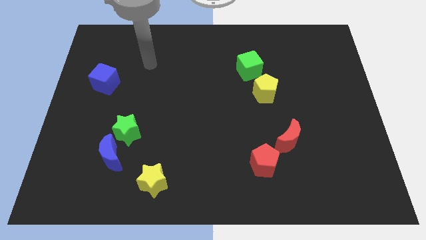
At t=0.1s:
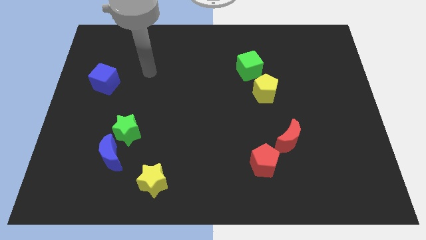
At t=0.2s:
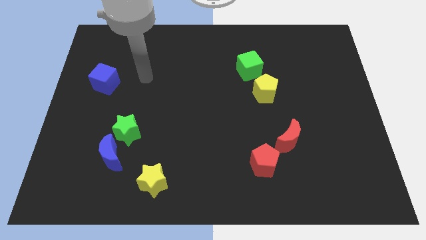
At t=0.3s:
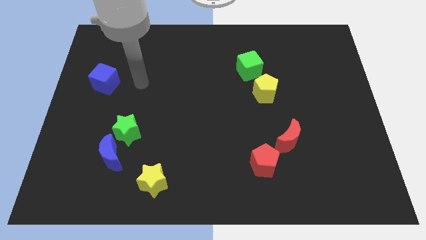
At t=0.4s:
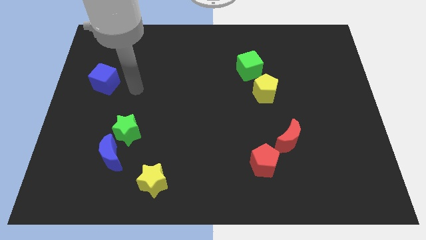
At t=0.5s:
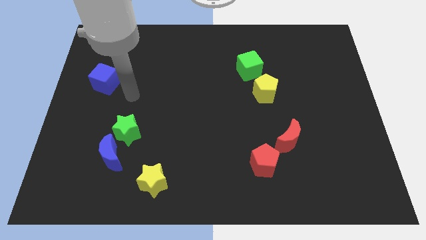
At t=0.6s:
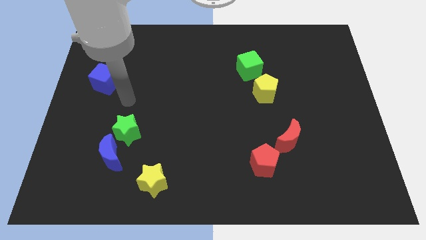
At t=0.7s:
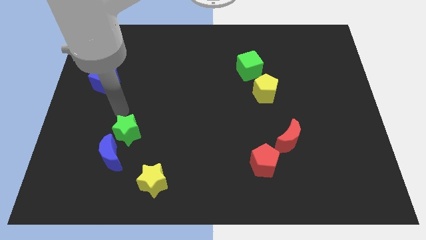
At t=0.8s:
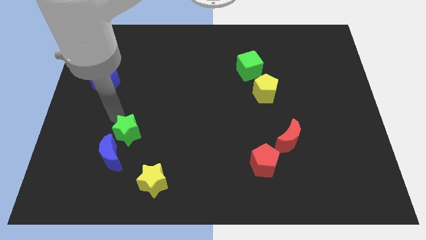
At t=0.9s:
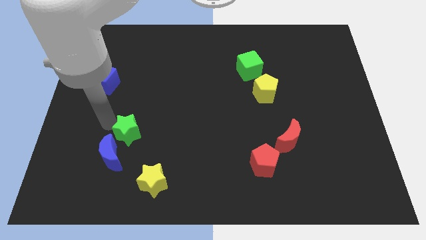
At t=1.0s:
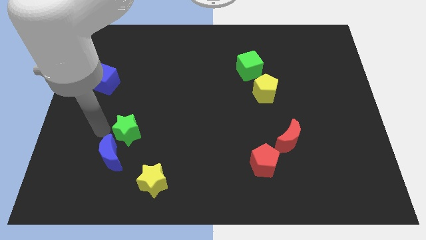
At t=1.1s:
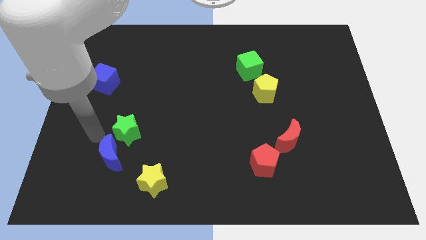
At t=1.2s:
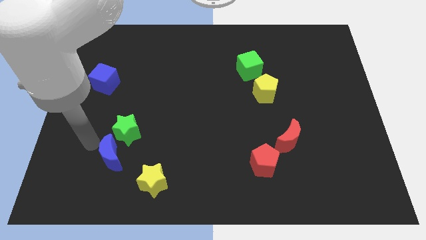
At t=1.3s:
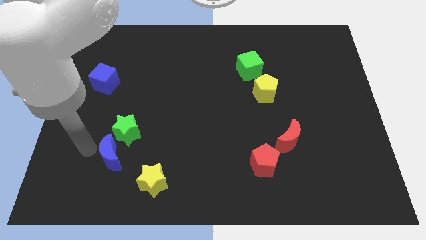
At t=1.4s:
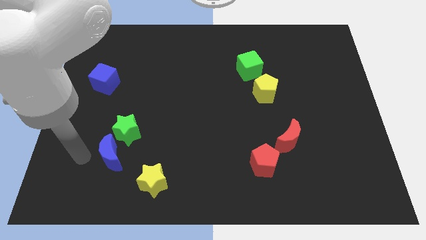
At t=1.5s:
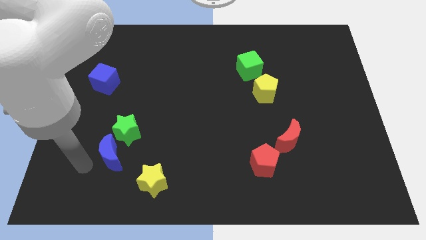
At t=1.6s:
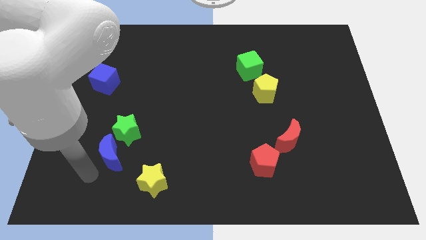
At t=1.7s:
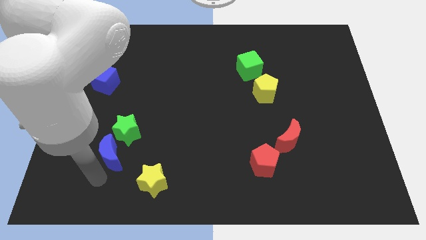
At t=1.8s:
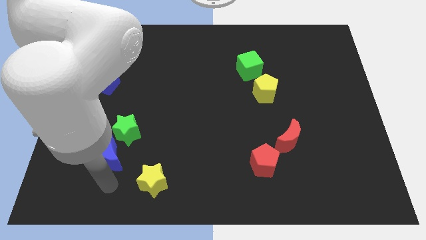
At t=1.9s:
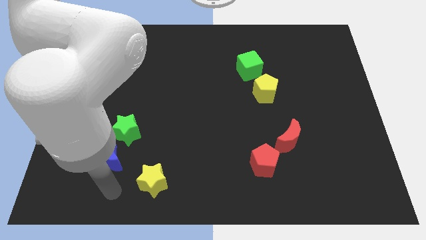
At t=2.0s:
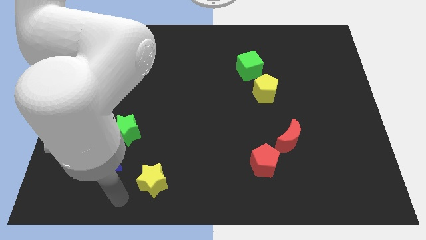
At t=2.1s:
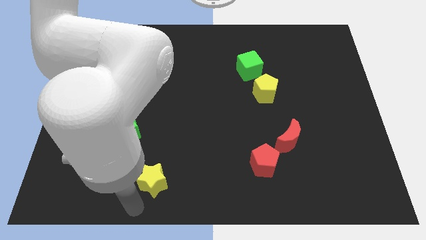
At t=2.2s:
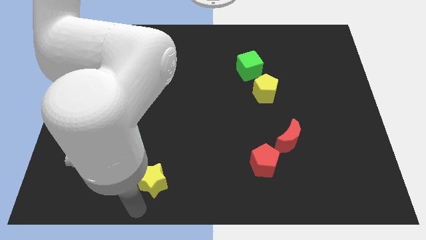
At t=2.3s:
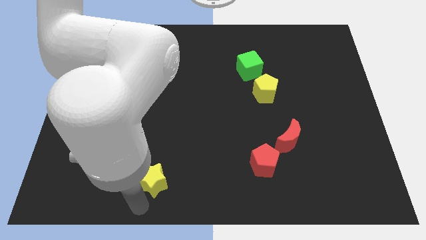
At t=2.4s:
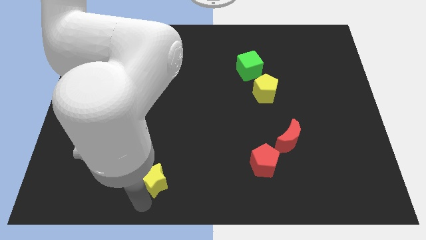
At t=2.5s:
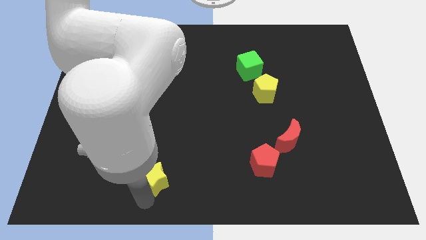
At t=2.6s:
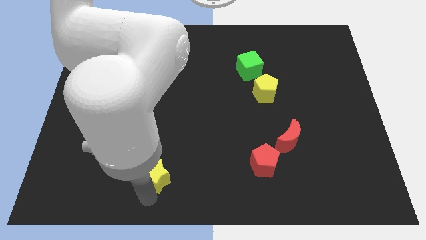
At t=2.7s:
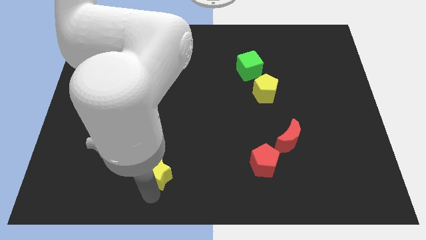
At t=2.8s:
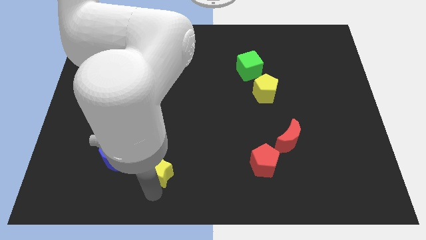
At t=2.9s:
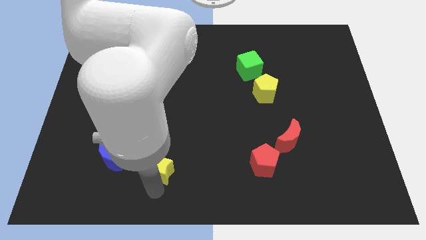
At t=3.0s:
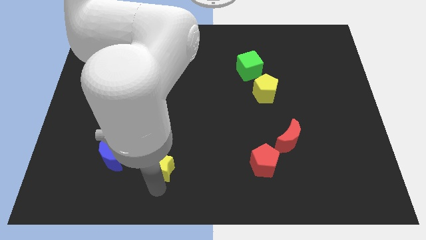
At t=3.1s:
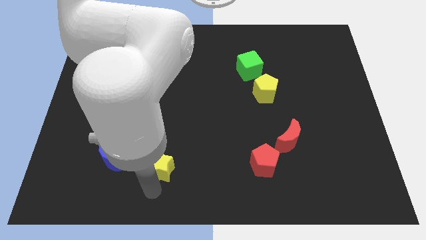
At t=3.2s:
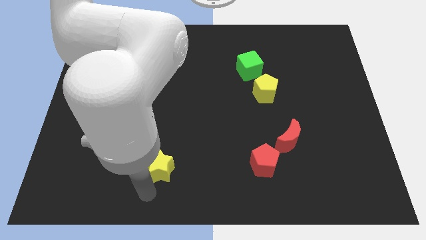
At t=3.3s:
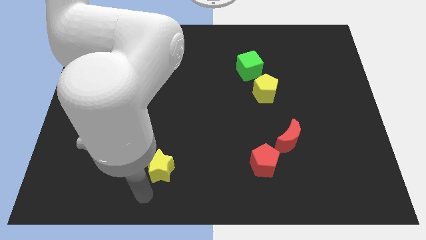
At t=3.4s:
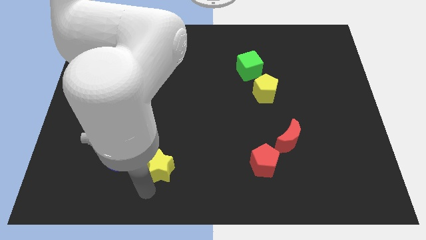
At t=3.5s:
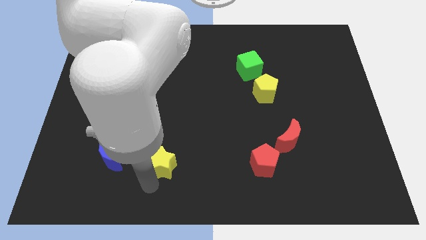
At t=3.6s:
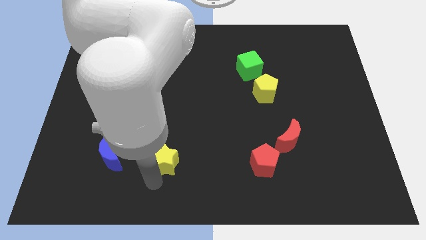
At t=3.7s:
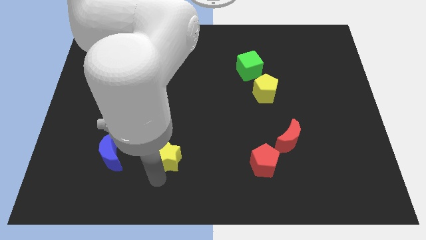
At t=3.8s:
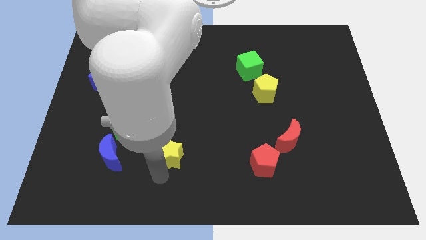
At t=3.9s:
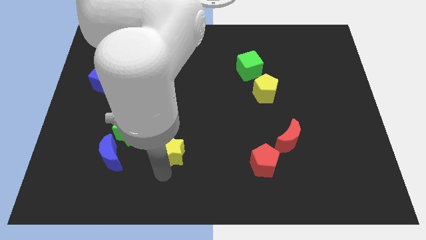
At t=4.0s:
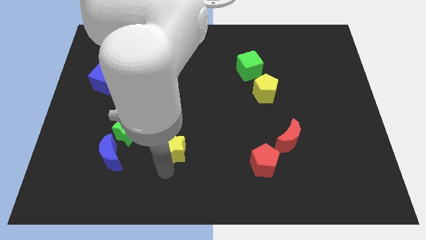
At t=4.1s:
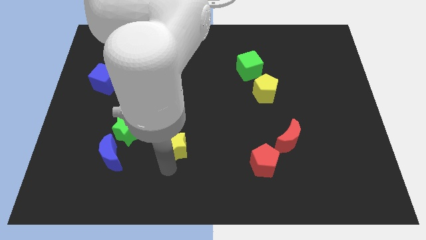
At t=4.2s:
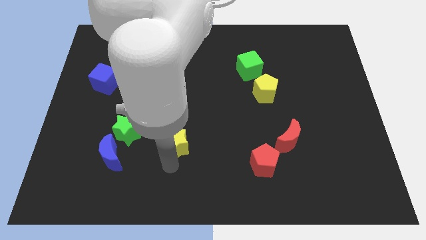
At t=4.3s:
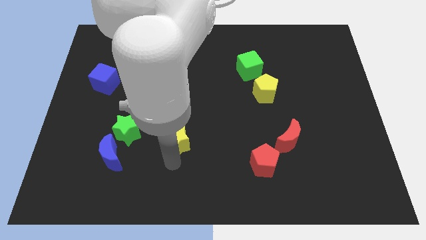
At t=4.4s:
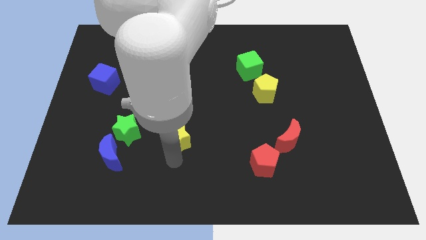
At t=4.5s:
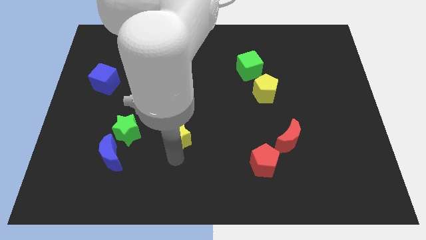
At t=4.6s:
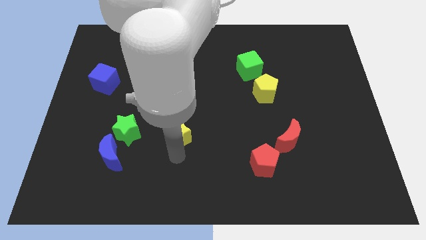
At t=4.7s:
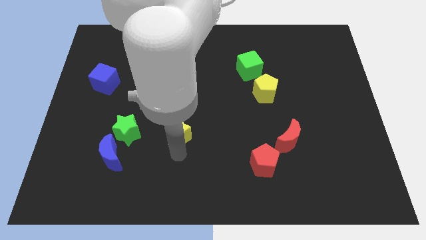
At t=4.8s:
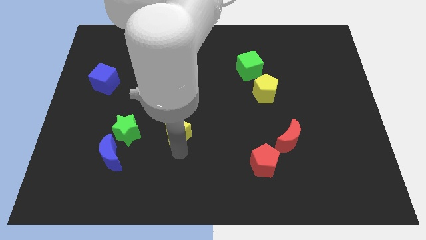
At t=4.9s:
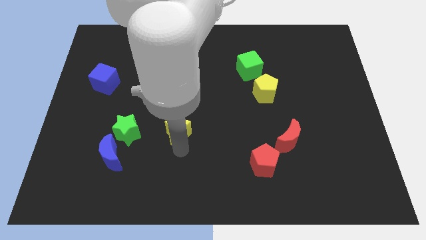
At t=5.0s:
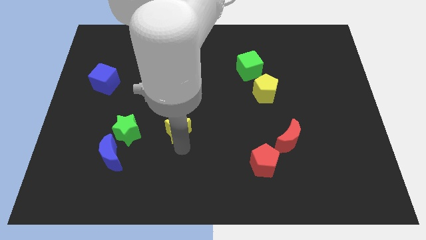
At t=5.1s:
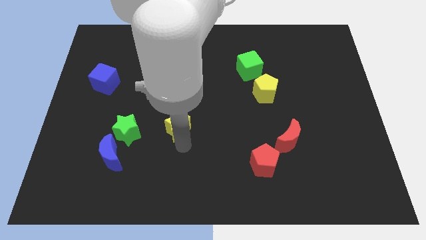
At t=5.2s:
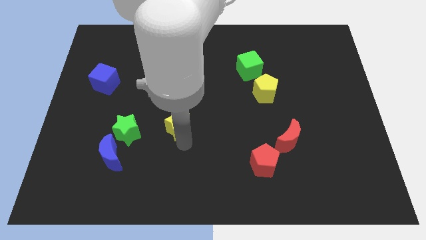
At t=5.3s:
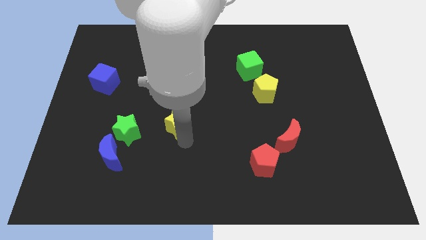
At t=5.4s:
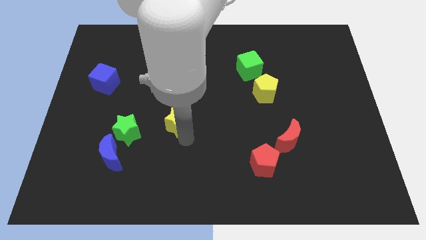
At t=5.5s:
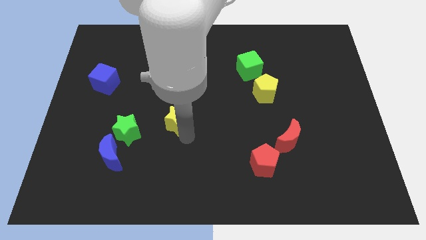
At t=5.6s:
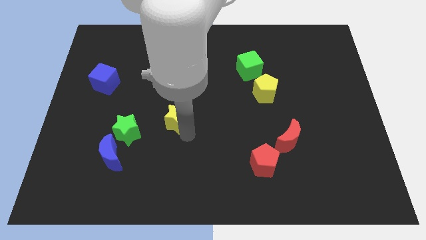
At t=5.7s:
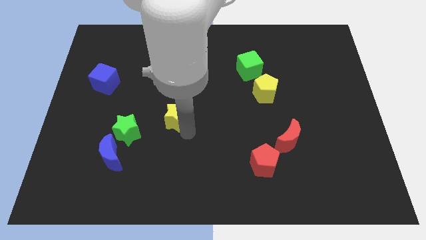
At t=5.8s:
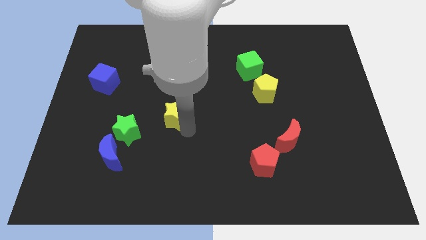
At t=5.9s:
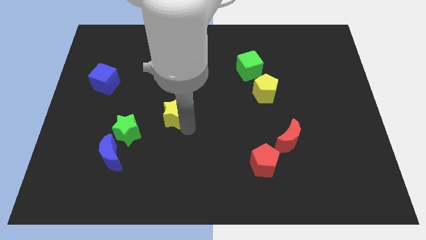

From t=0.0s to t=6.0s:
put the yellow star diagonally up and to the right of the green star

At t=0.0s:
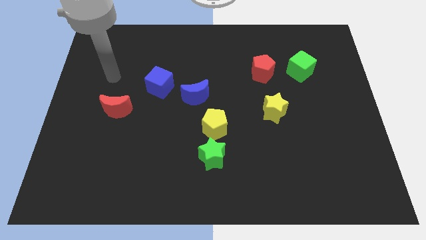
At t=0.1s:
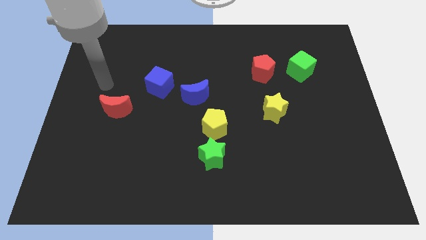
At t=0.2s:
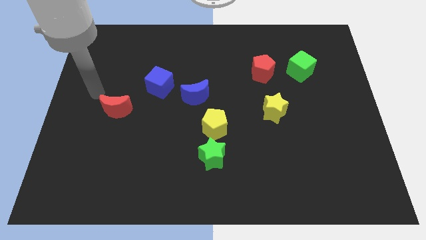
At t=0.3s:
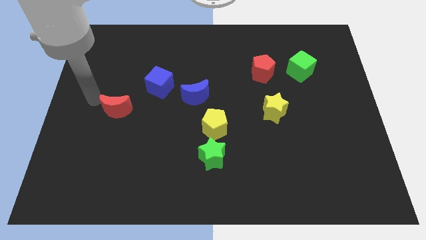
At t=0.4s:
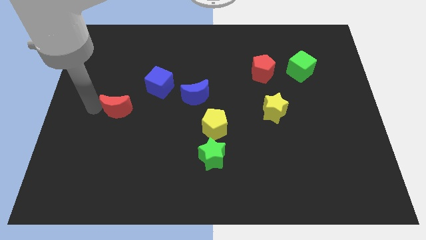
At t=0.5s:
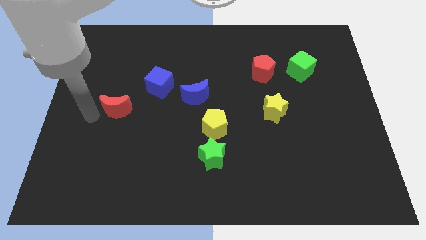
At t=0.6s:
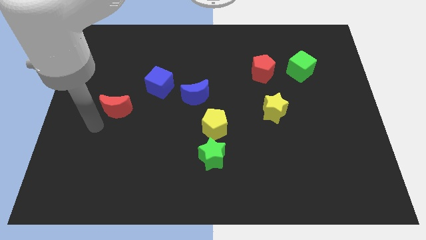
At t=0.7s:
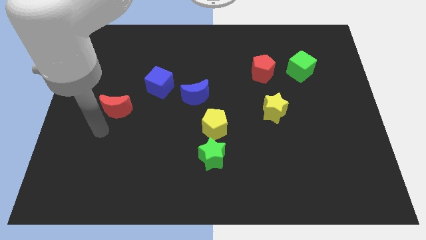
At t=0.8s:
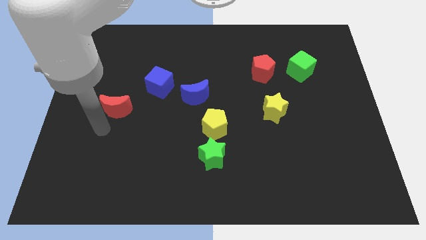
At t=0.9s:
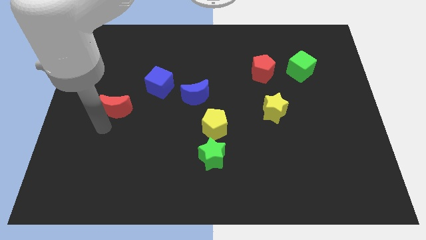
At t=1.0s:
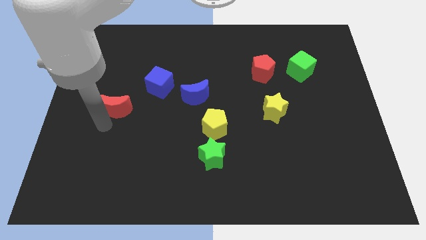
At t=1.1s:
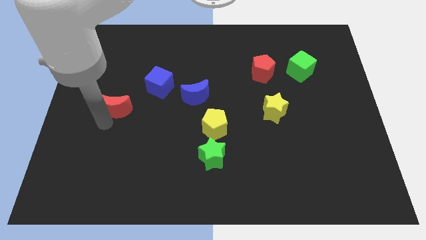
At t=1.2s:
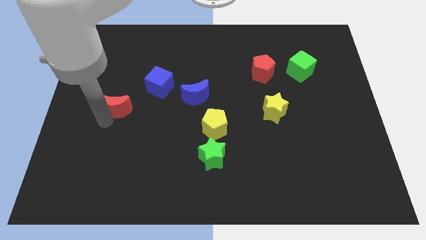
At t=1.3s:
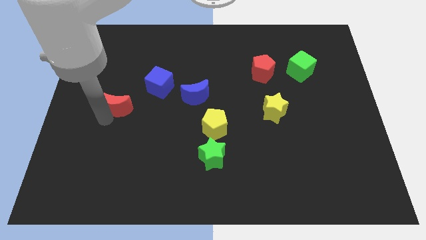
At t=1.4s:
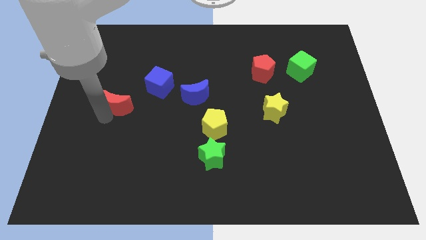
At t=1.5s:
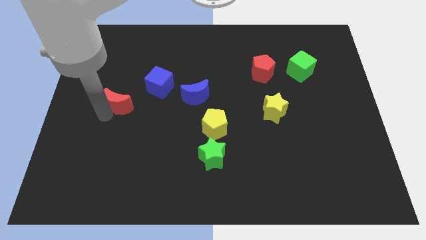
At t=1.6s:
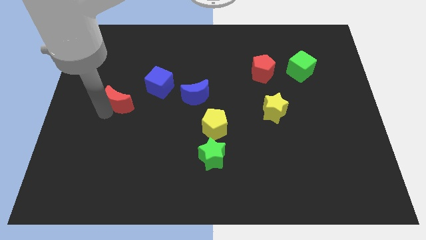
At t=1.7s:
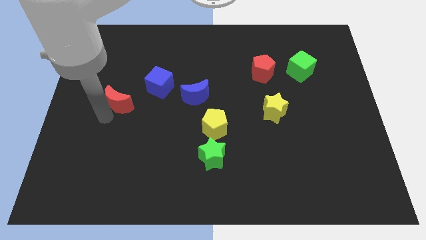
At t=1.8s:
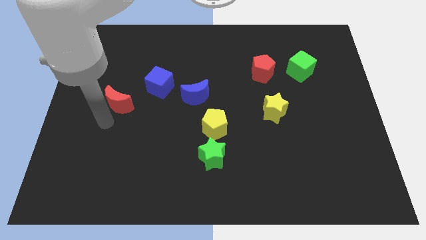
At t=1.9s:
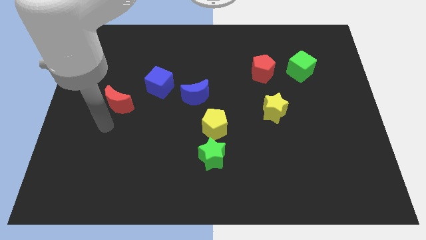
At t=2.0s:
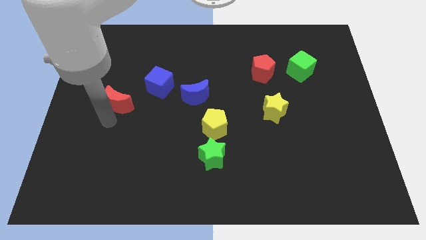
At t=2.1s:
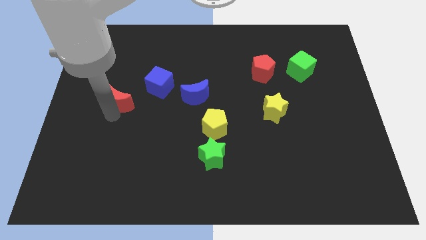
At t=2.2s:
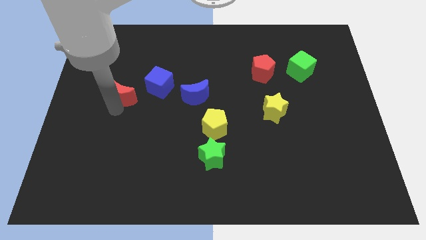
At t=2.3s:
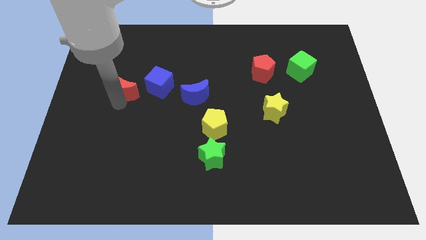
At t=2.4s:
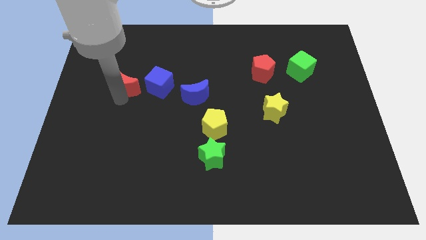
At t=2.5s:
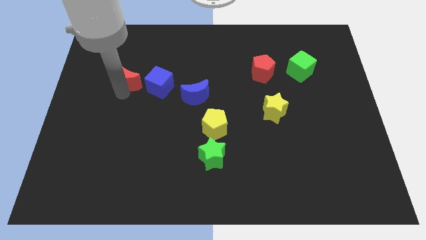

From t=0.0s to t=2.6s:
push the red moon to the top left of the blue cube
